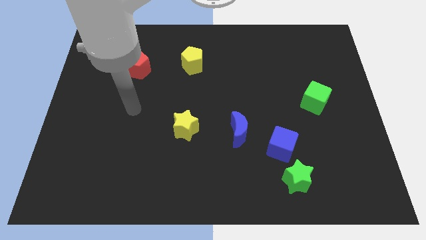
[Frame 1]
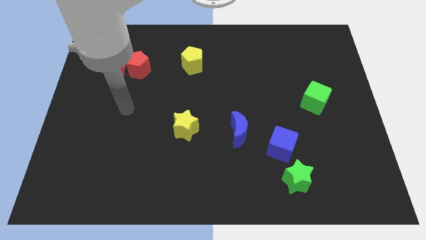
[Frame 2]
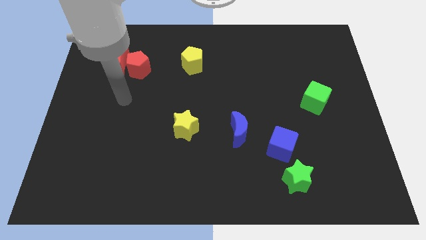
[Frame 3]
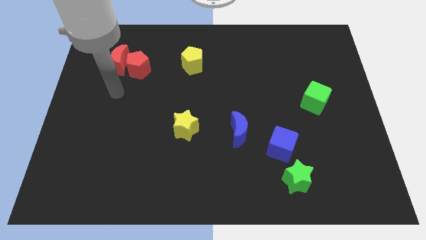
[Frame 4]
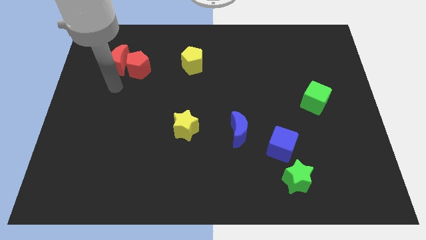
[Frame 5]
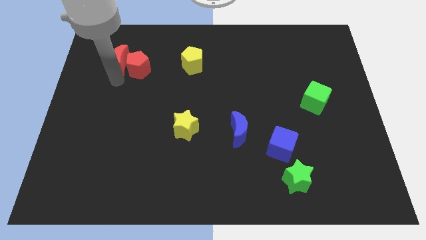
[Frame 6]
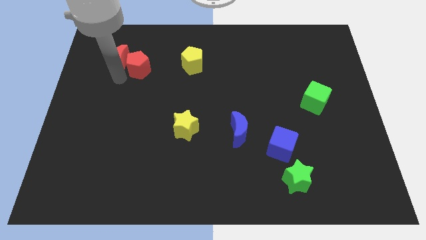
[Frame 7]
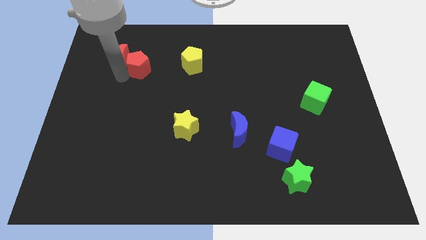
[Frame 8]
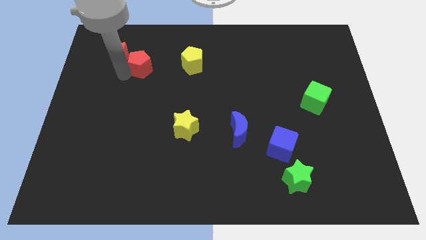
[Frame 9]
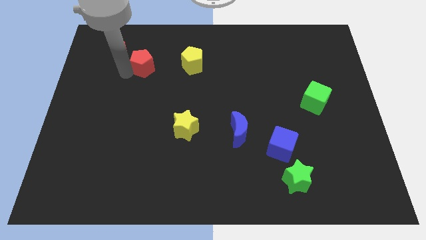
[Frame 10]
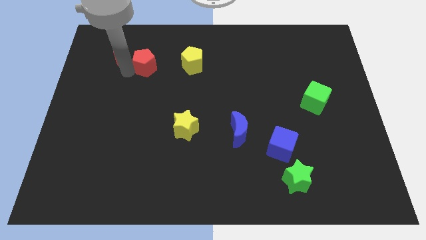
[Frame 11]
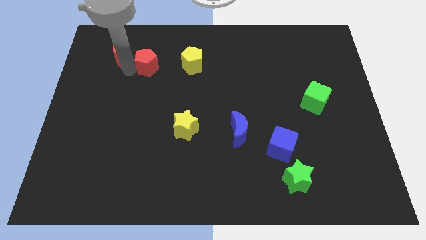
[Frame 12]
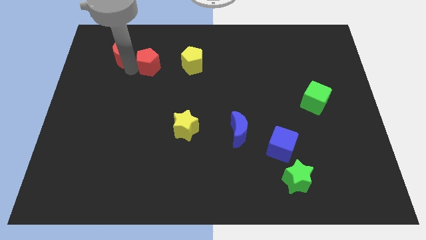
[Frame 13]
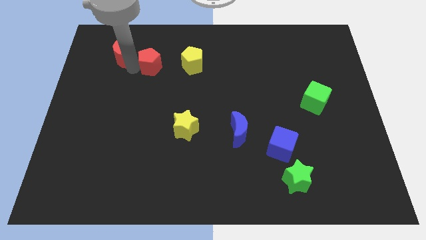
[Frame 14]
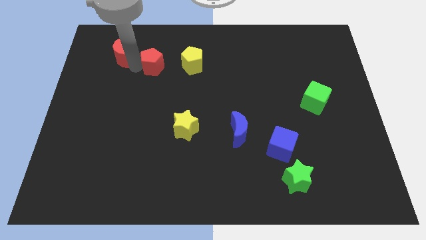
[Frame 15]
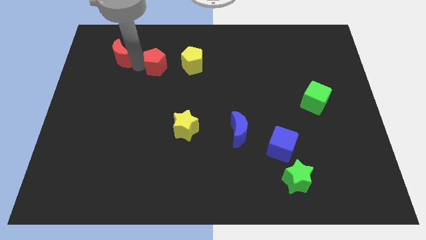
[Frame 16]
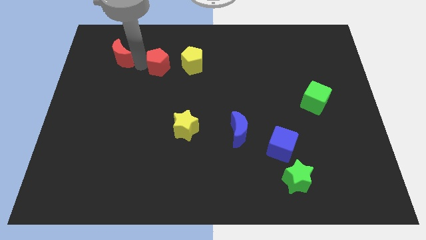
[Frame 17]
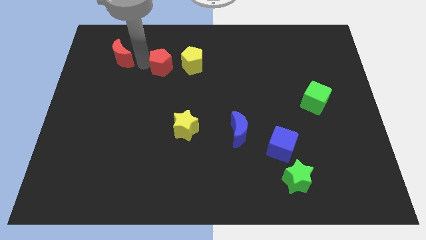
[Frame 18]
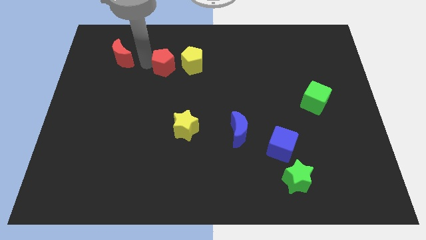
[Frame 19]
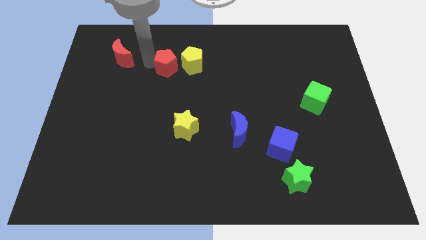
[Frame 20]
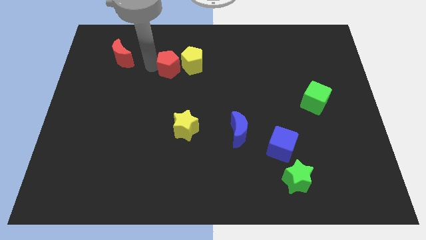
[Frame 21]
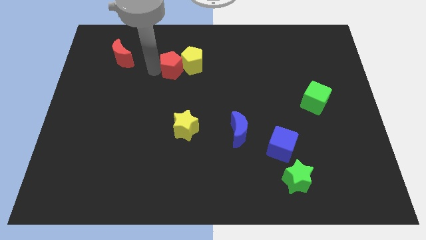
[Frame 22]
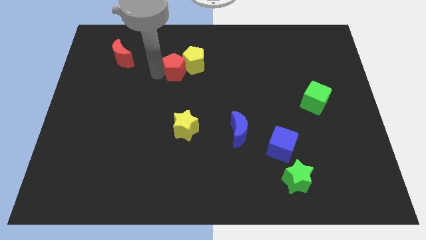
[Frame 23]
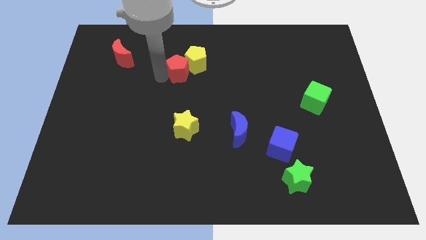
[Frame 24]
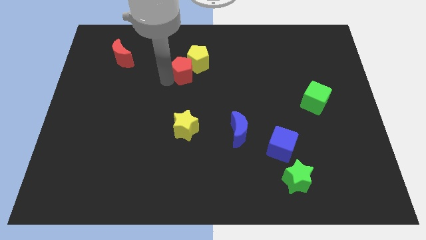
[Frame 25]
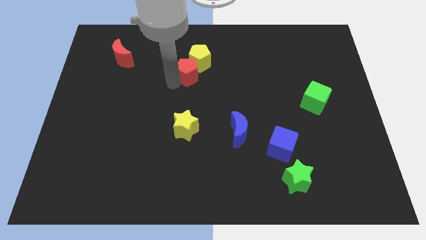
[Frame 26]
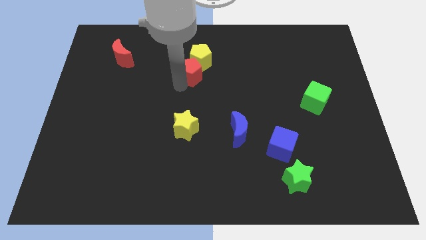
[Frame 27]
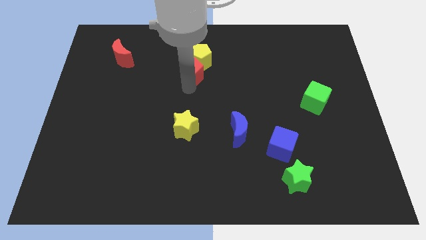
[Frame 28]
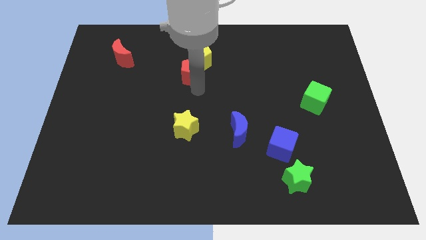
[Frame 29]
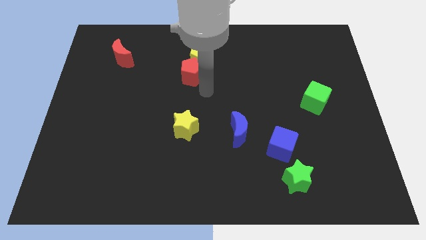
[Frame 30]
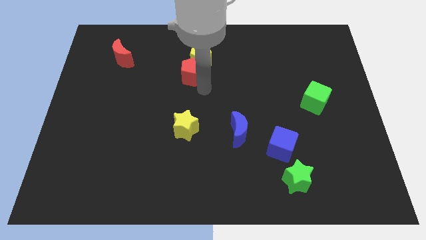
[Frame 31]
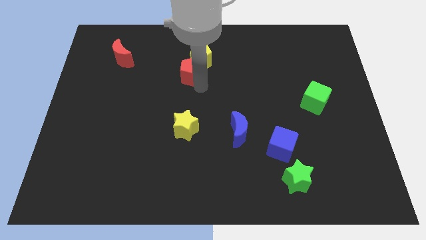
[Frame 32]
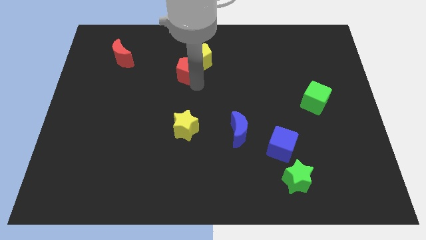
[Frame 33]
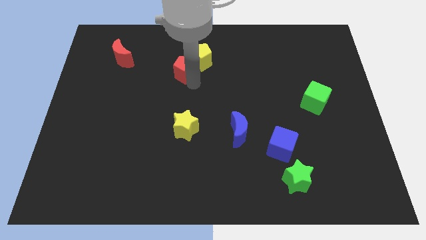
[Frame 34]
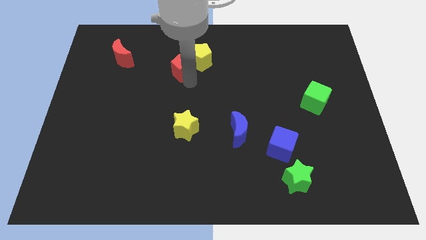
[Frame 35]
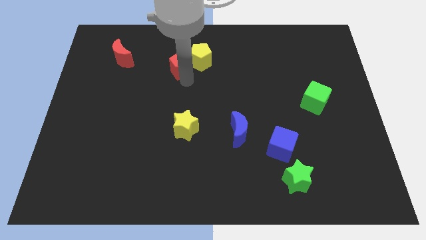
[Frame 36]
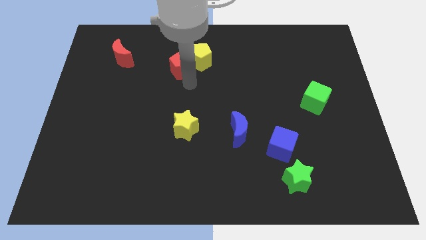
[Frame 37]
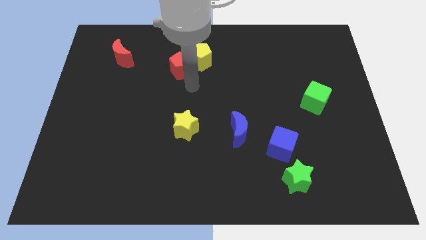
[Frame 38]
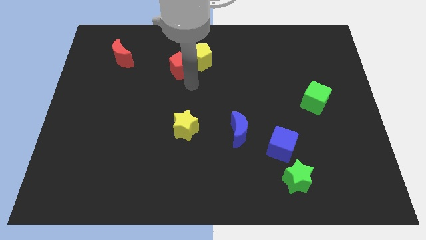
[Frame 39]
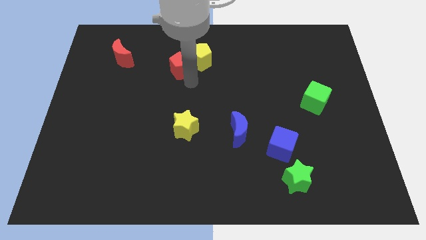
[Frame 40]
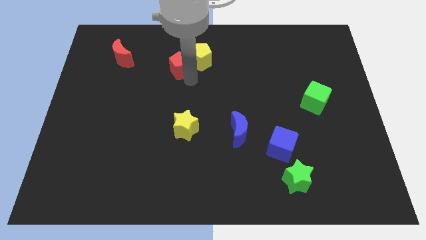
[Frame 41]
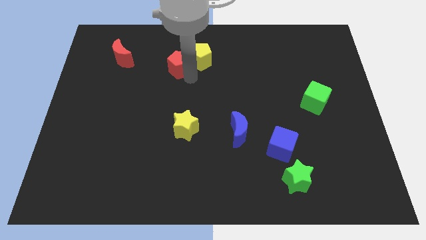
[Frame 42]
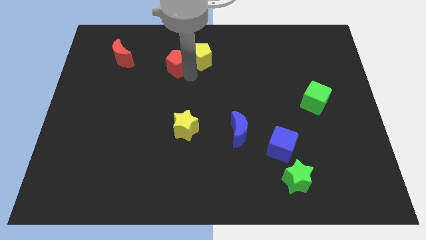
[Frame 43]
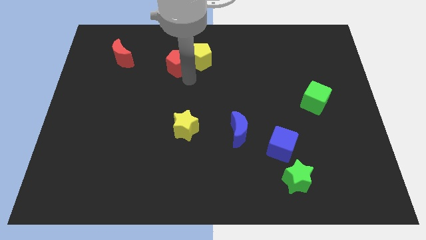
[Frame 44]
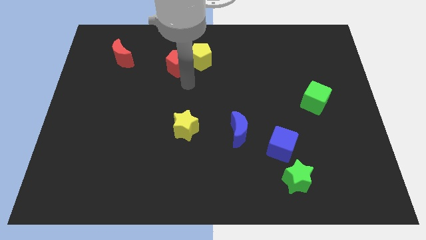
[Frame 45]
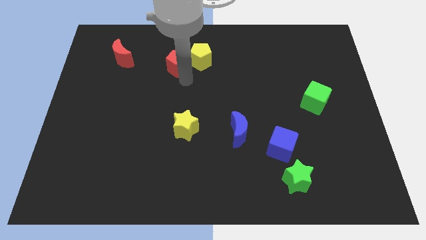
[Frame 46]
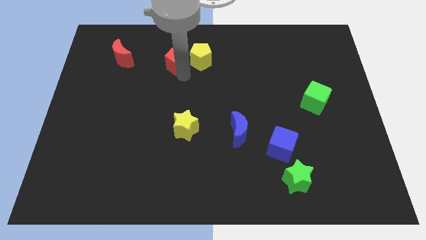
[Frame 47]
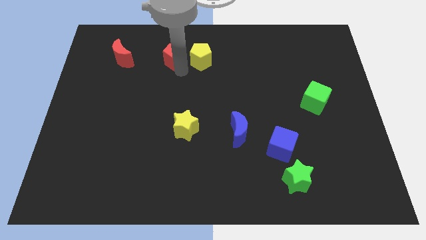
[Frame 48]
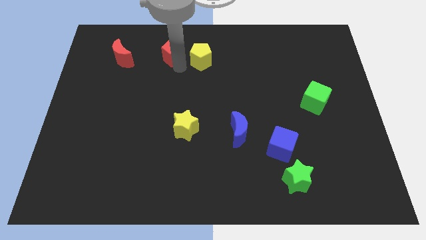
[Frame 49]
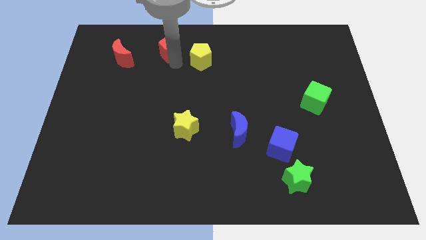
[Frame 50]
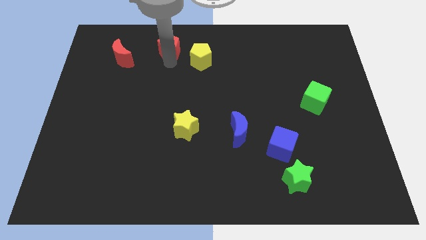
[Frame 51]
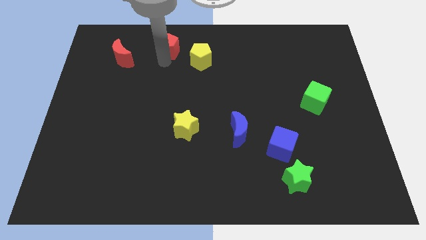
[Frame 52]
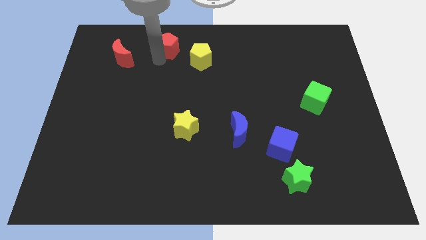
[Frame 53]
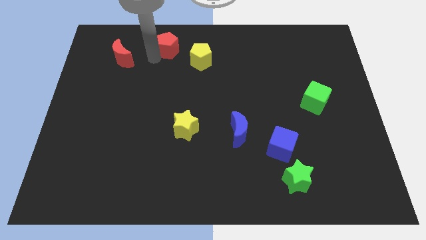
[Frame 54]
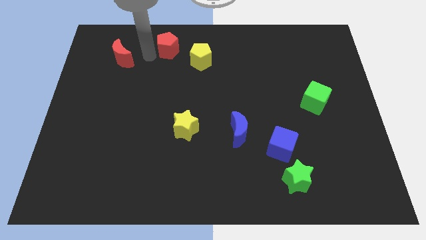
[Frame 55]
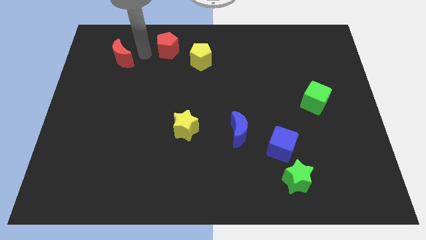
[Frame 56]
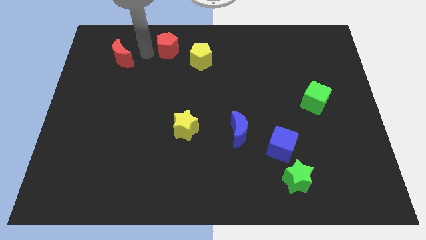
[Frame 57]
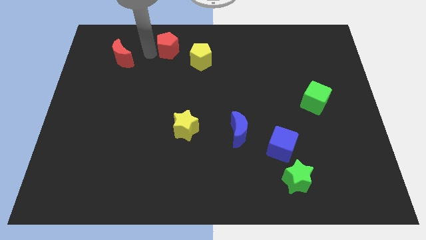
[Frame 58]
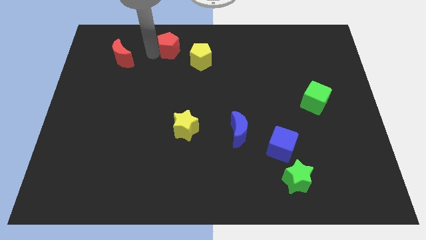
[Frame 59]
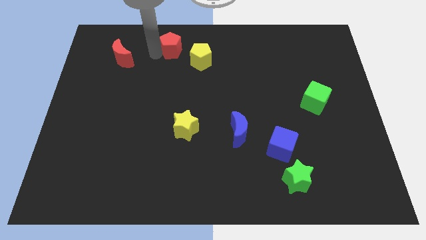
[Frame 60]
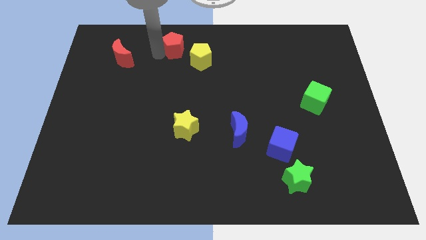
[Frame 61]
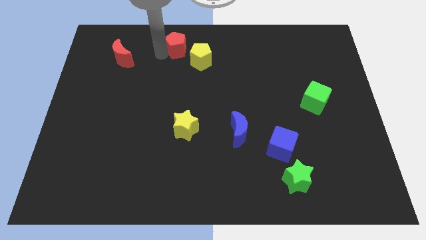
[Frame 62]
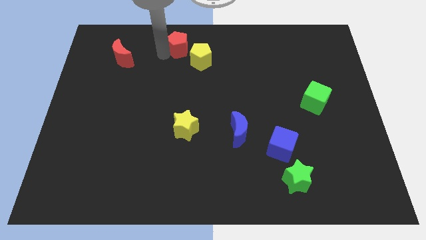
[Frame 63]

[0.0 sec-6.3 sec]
slide the red pentagon to the towards your base
